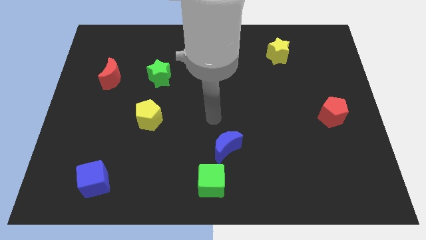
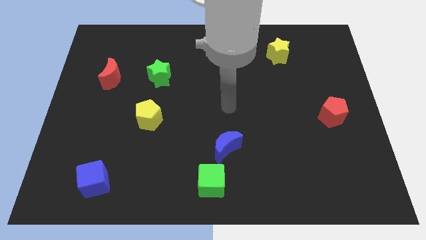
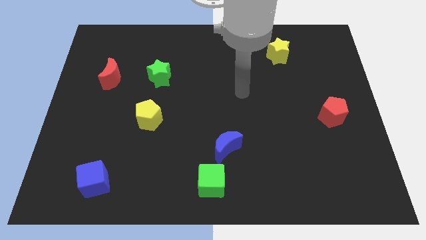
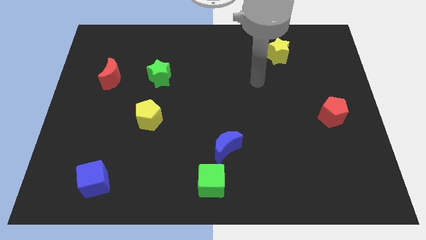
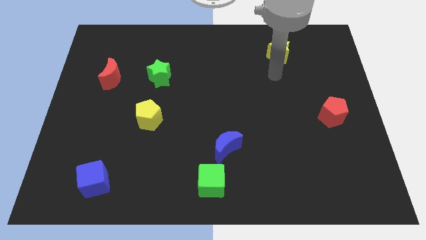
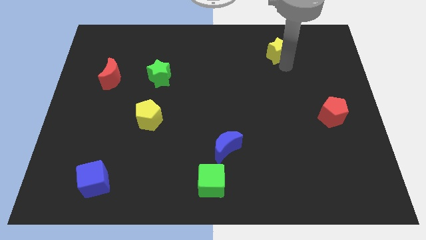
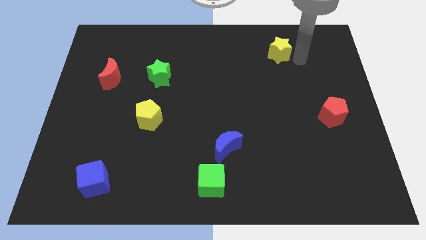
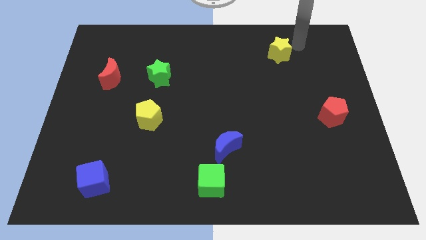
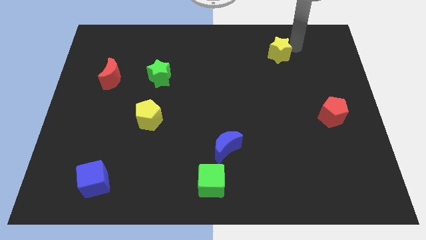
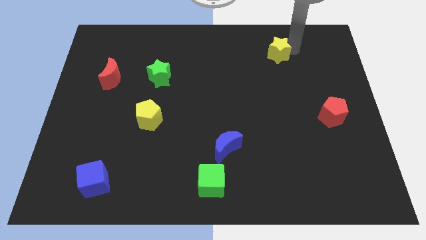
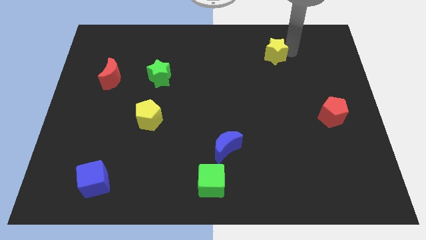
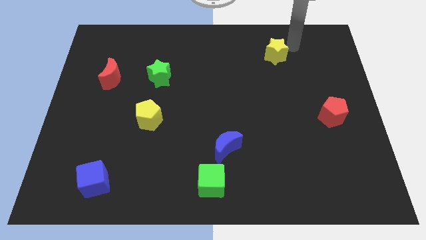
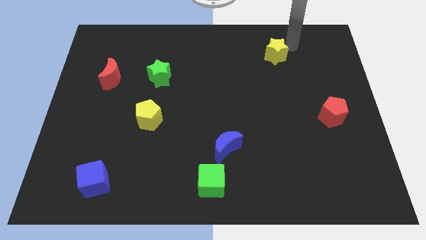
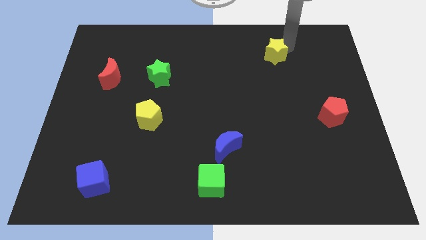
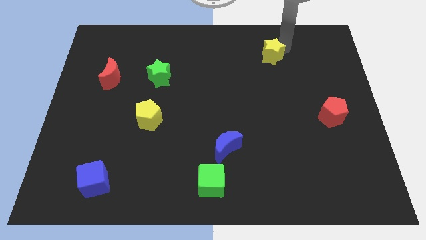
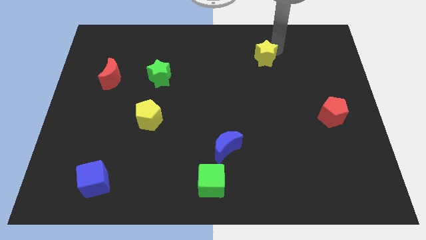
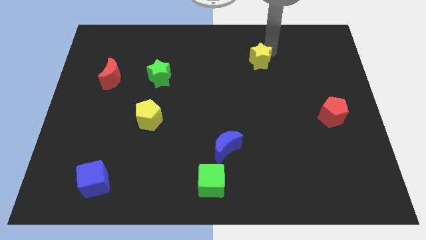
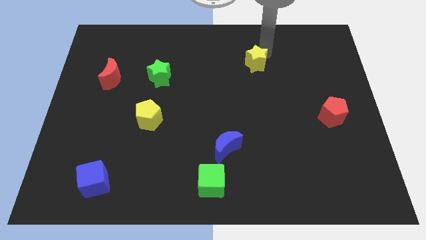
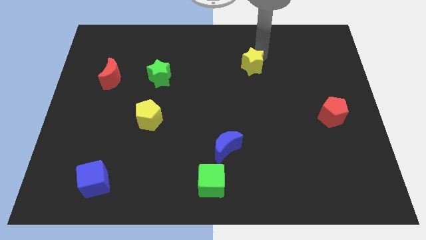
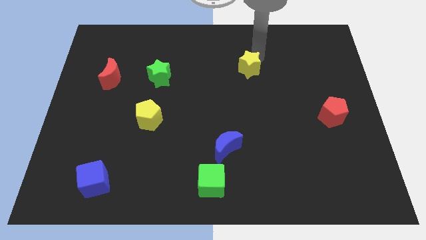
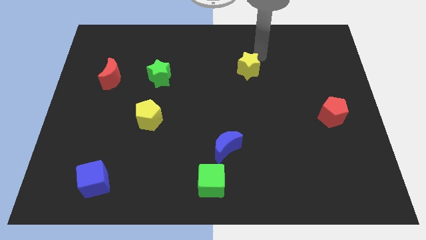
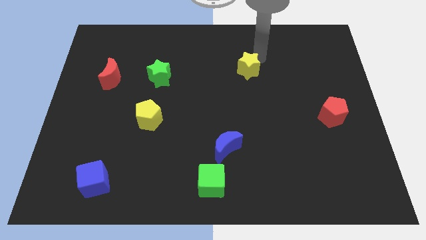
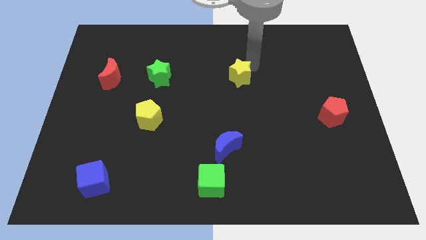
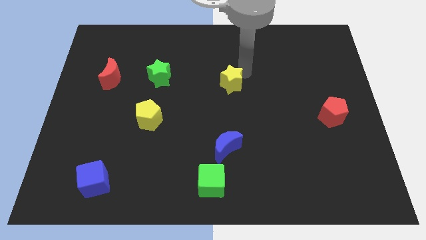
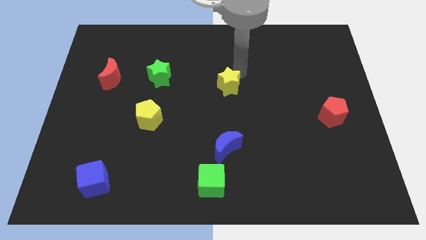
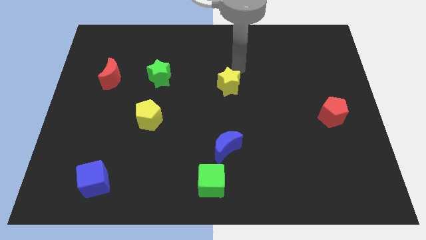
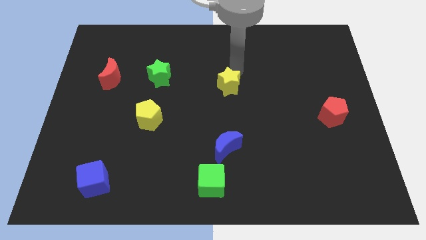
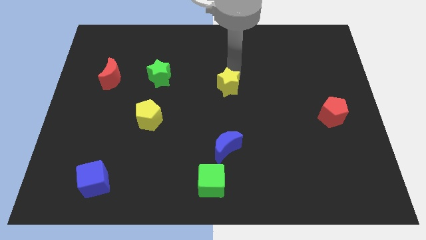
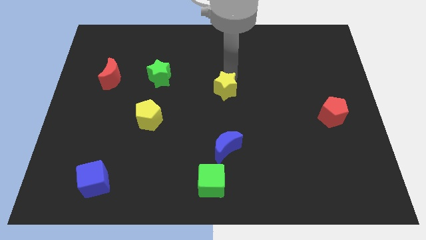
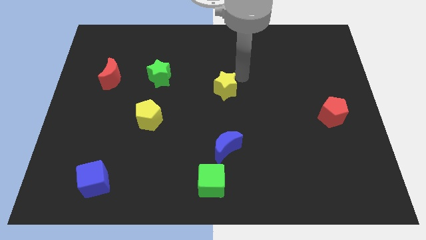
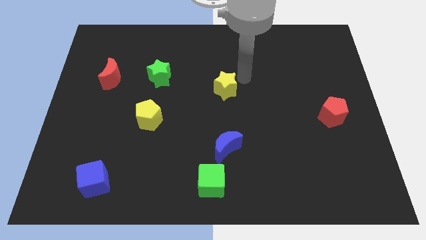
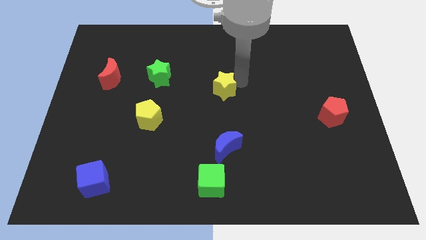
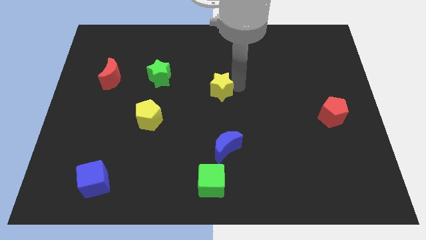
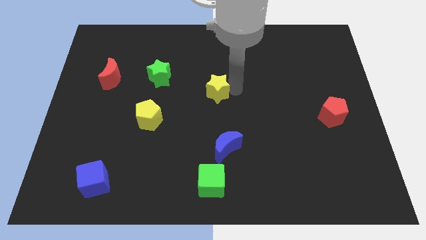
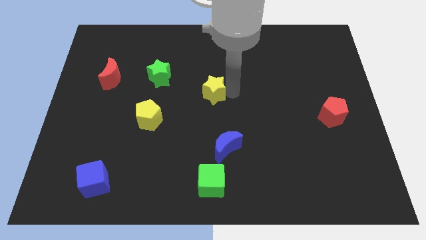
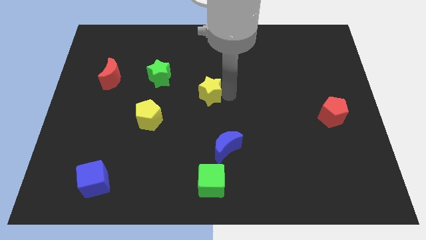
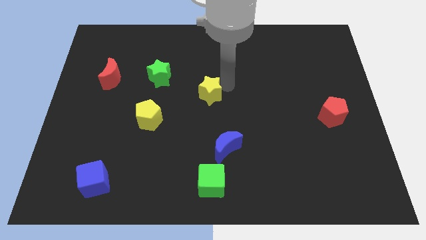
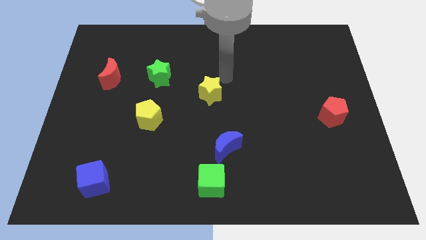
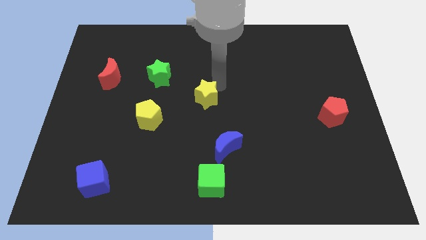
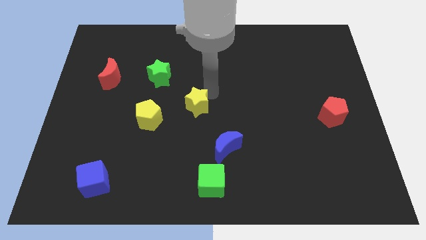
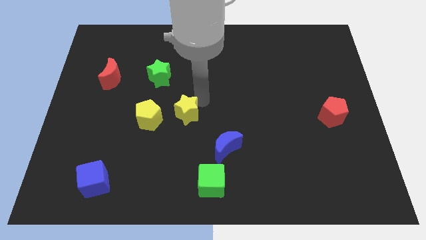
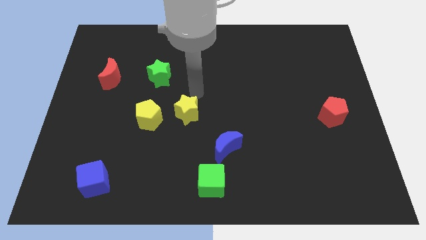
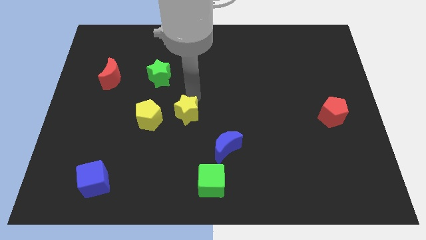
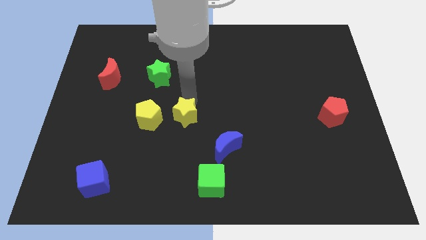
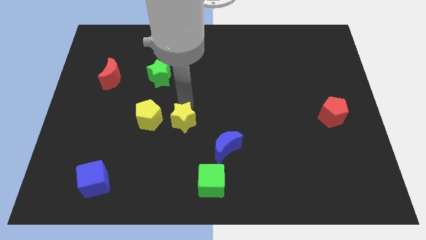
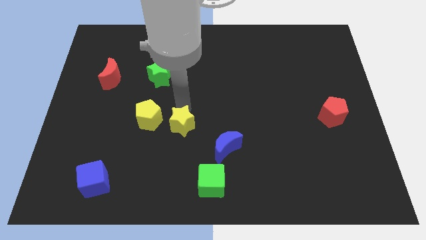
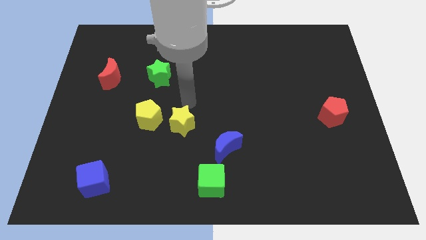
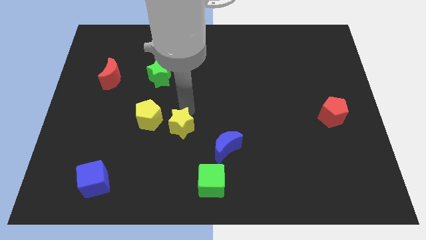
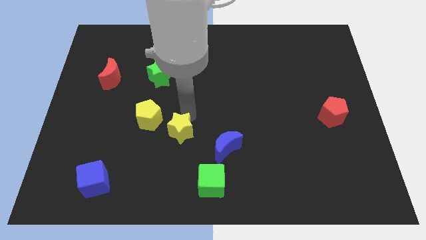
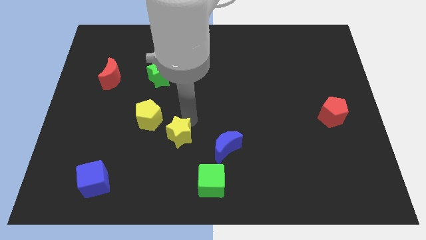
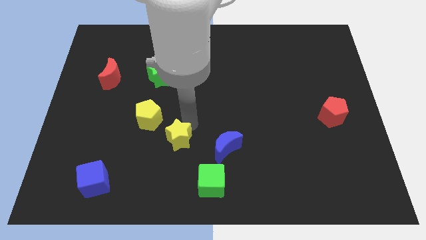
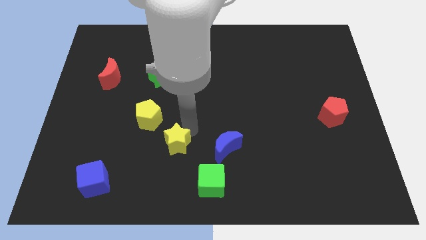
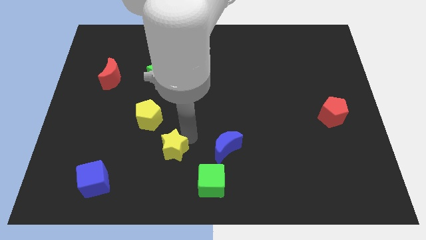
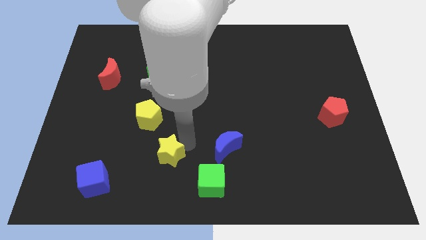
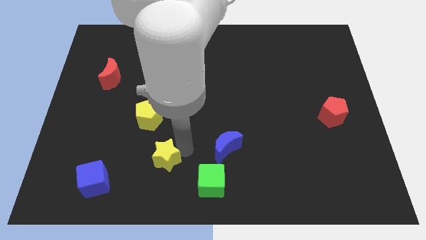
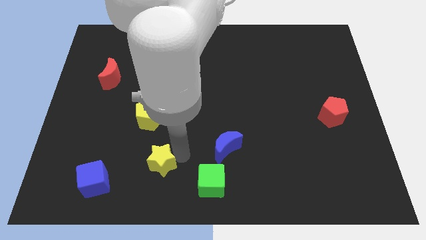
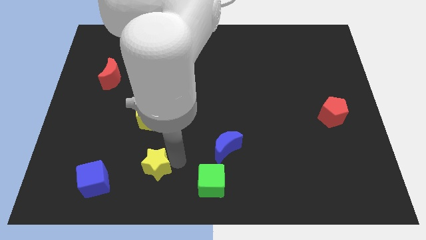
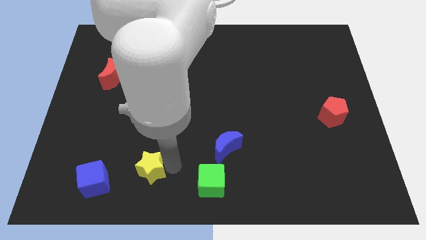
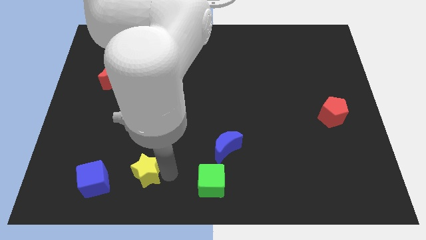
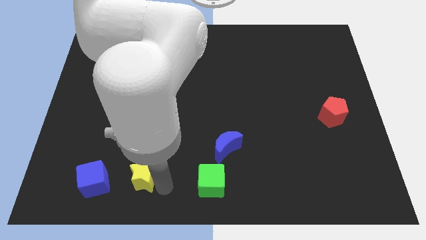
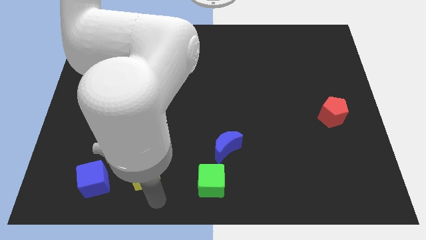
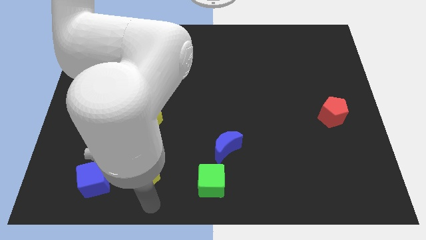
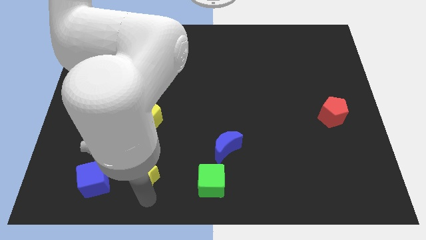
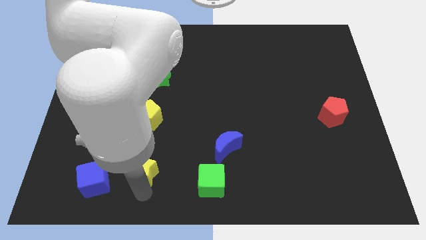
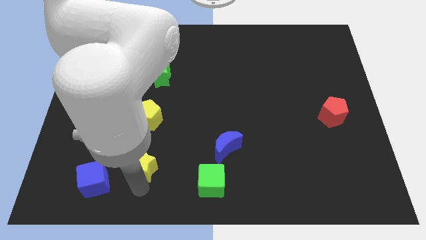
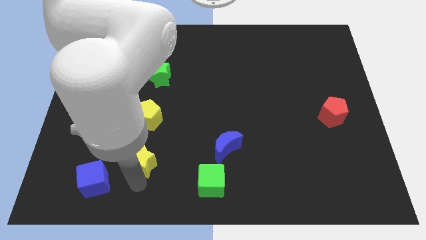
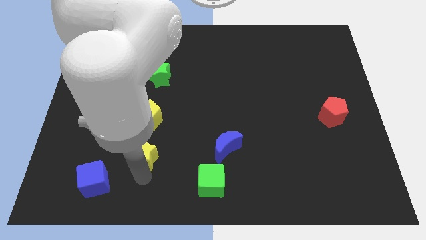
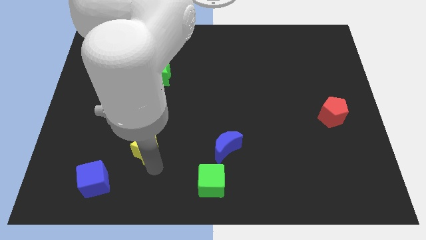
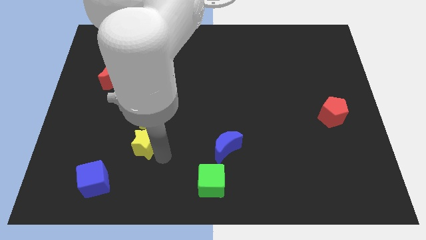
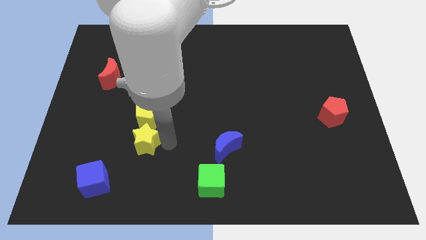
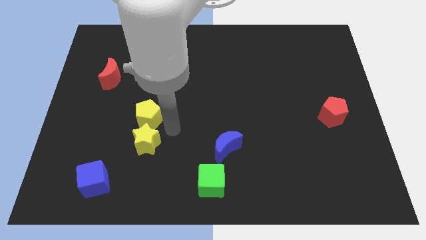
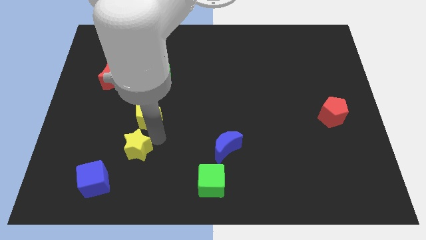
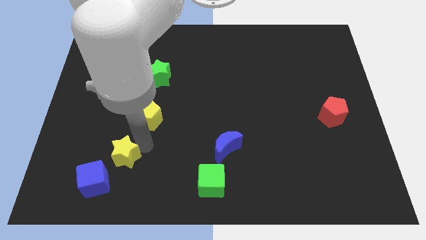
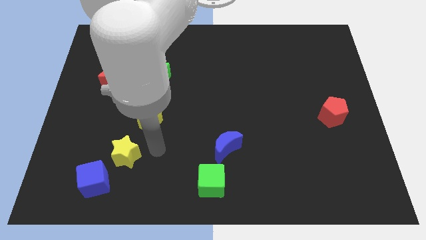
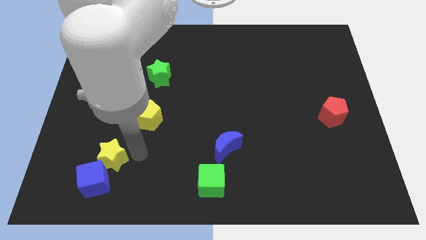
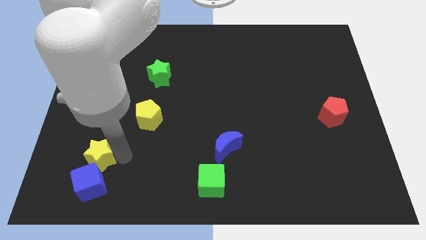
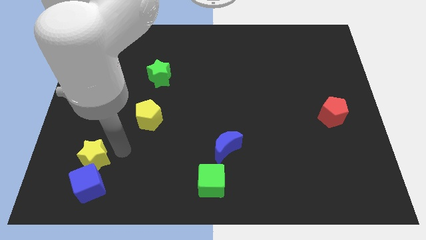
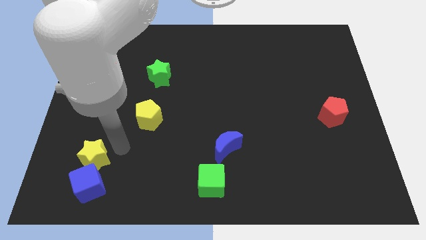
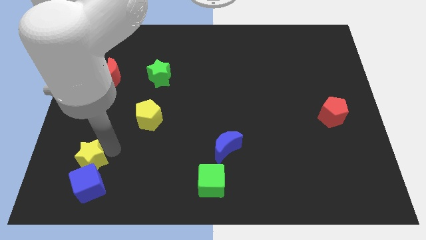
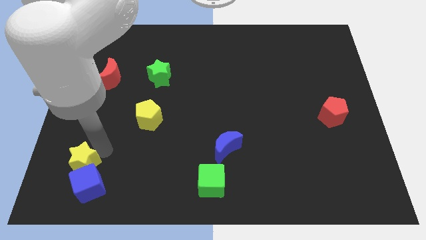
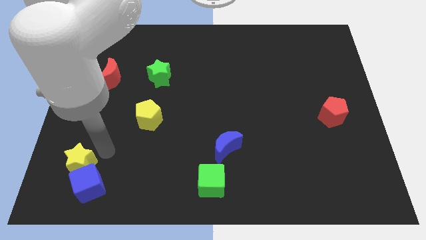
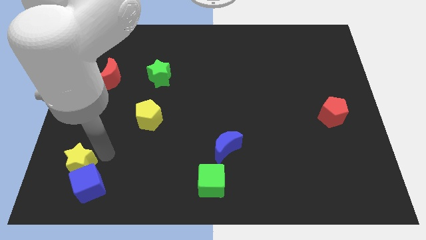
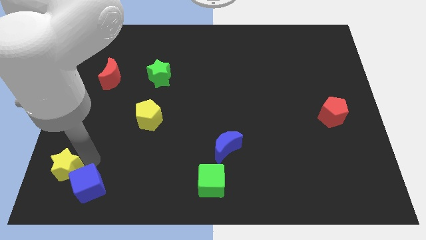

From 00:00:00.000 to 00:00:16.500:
push the yellow star to the bottom left corner
